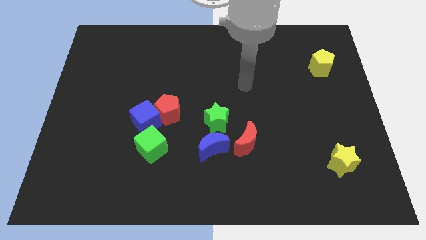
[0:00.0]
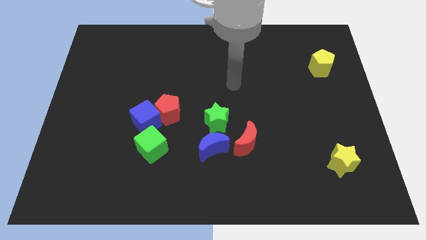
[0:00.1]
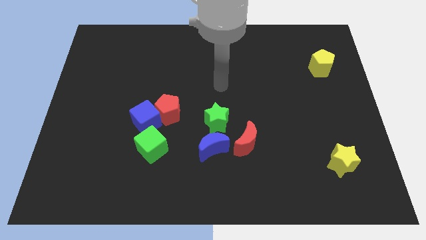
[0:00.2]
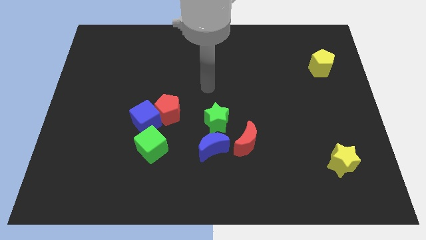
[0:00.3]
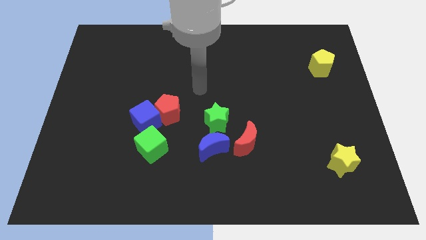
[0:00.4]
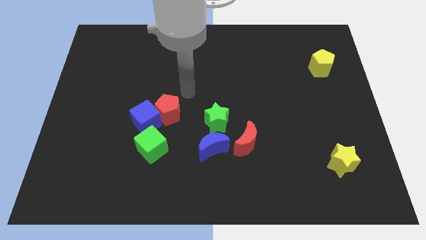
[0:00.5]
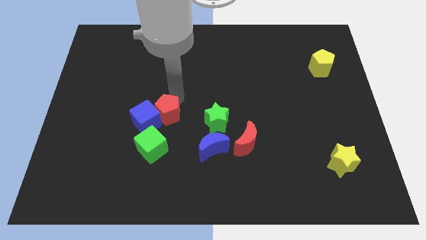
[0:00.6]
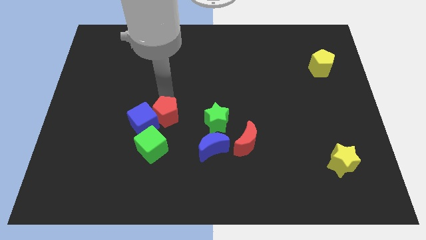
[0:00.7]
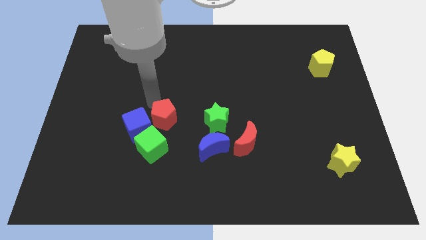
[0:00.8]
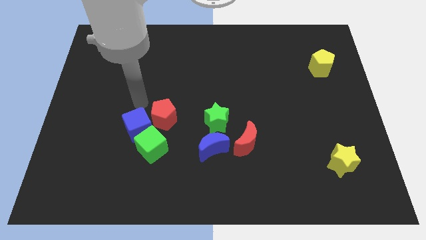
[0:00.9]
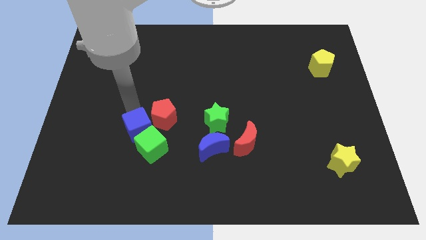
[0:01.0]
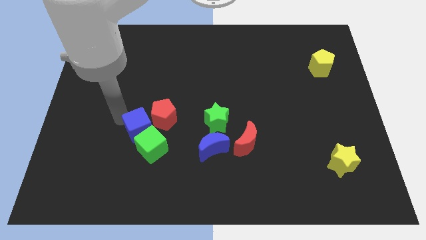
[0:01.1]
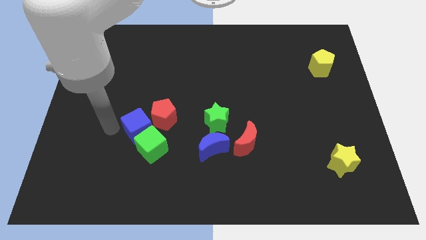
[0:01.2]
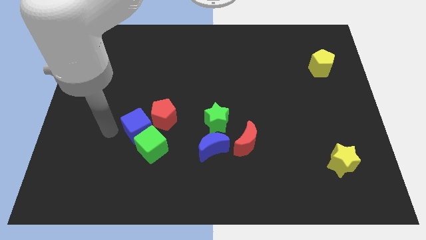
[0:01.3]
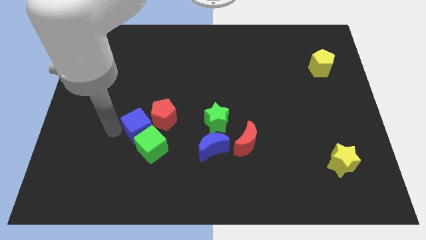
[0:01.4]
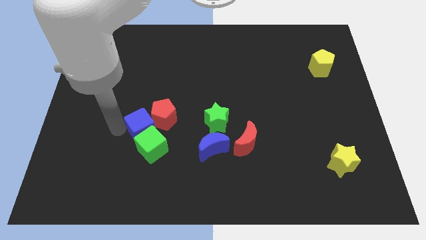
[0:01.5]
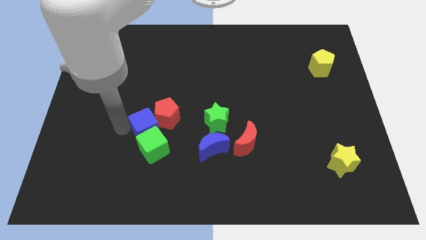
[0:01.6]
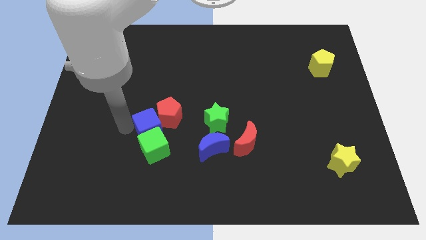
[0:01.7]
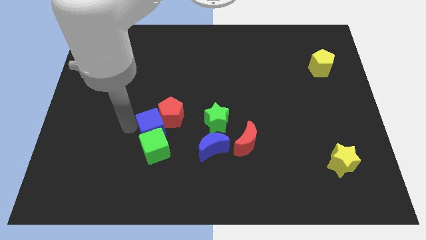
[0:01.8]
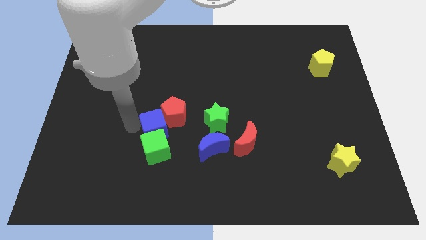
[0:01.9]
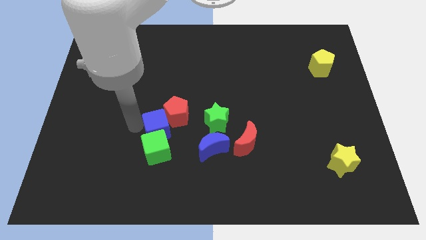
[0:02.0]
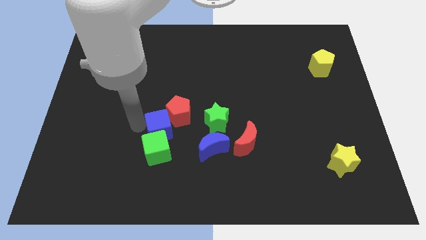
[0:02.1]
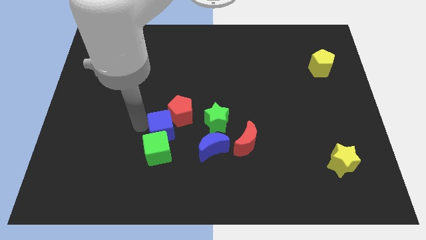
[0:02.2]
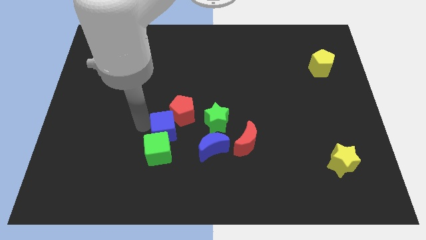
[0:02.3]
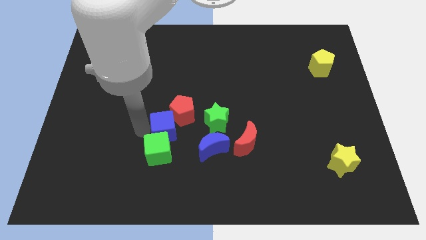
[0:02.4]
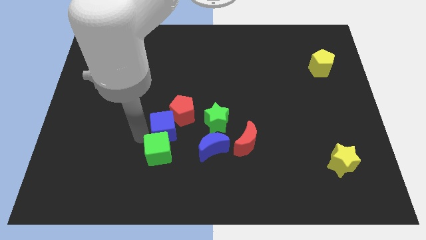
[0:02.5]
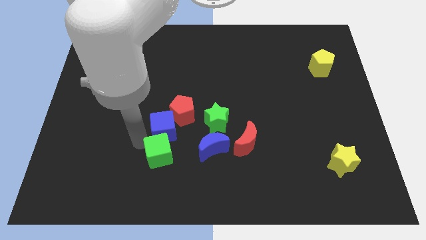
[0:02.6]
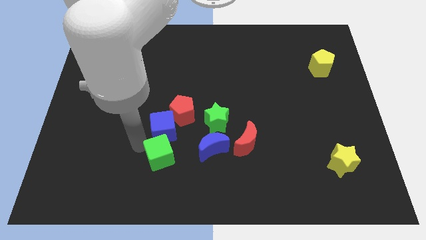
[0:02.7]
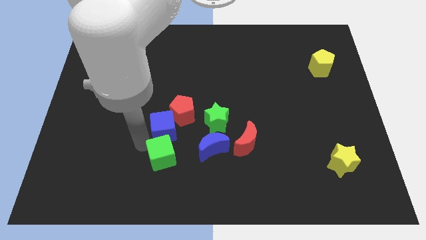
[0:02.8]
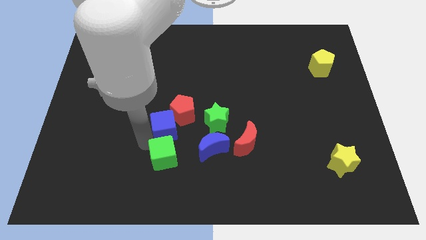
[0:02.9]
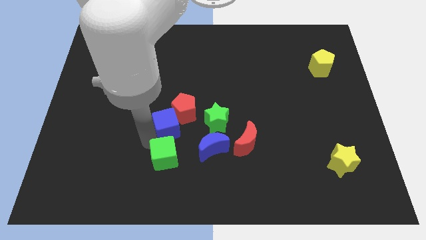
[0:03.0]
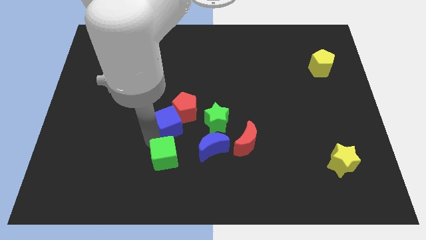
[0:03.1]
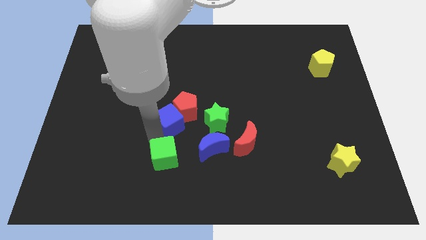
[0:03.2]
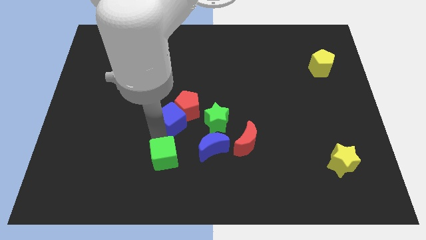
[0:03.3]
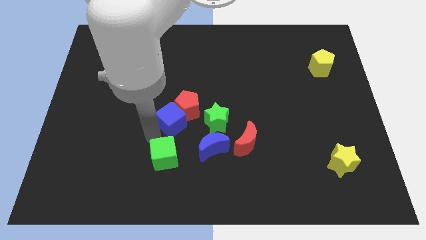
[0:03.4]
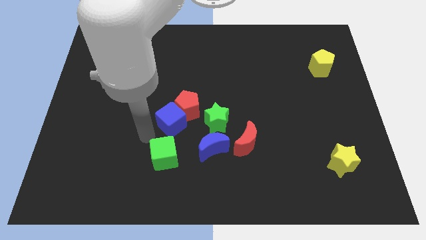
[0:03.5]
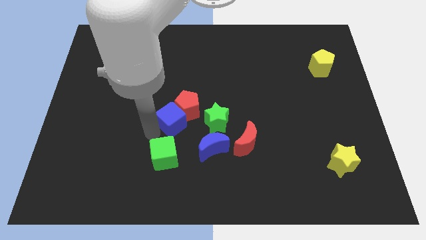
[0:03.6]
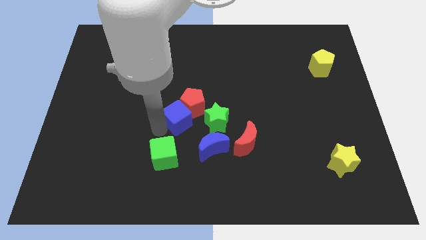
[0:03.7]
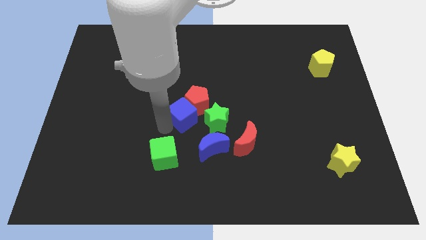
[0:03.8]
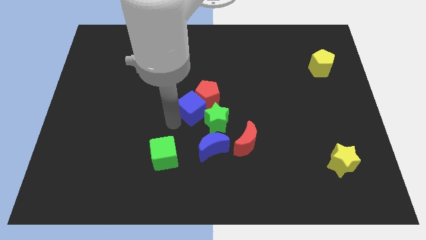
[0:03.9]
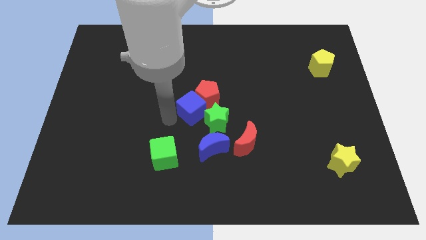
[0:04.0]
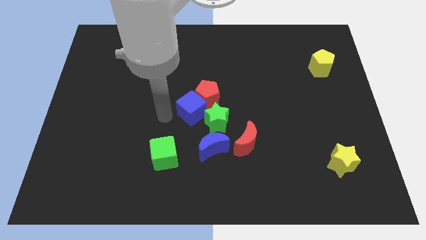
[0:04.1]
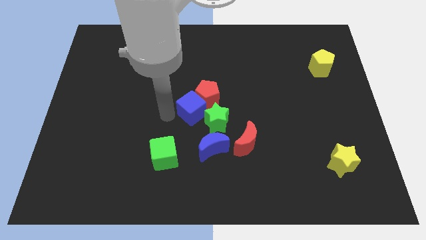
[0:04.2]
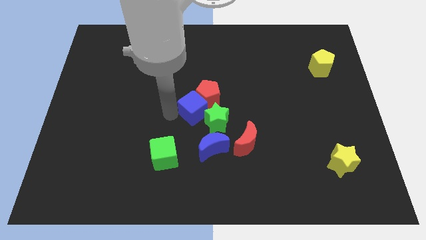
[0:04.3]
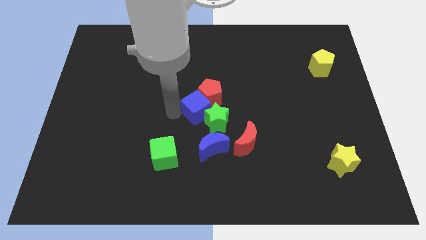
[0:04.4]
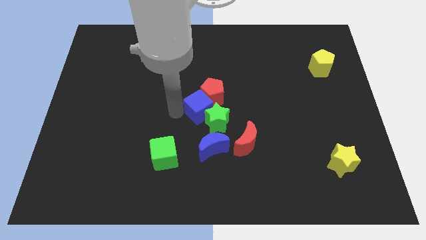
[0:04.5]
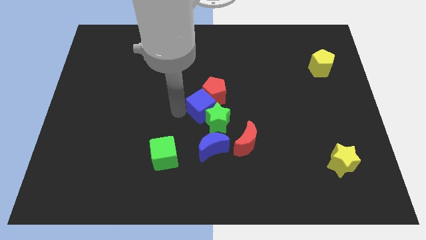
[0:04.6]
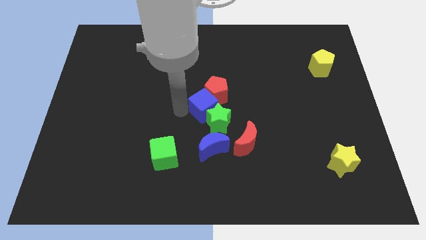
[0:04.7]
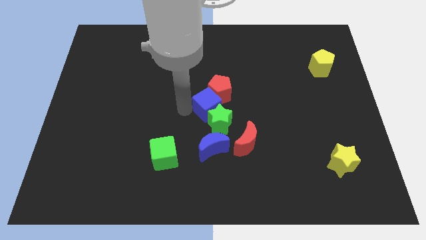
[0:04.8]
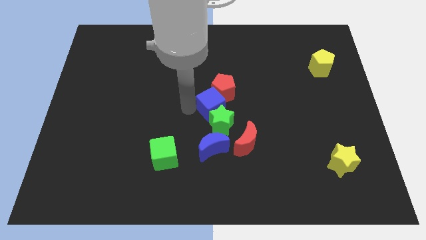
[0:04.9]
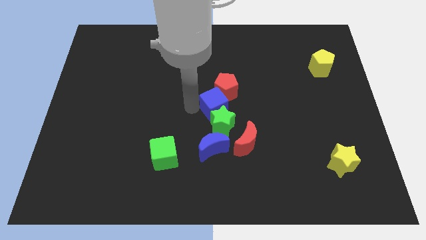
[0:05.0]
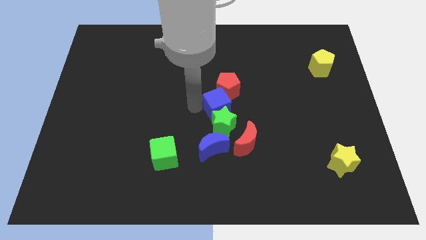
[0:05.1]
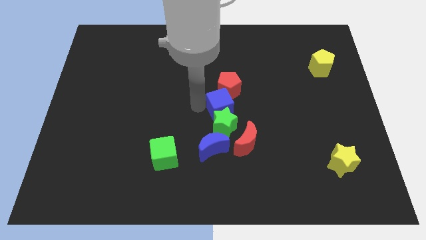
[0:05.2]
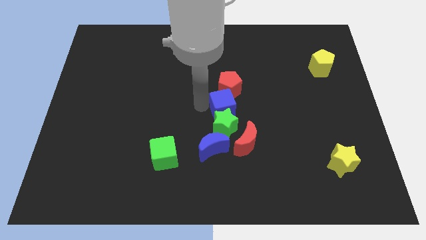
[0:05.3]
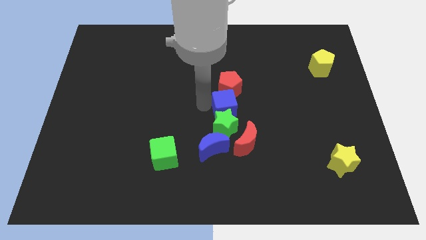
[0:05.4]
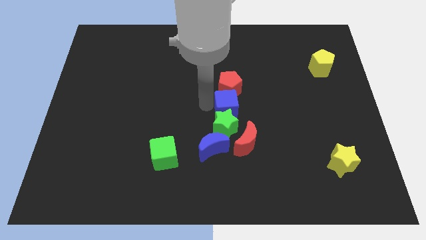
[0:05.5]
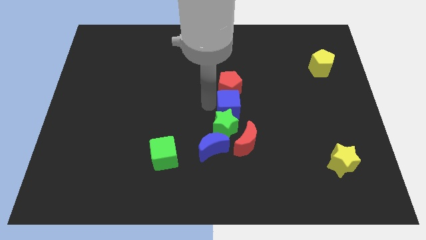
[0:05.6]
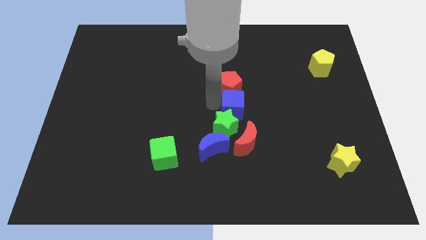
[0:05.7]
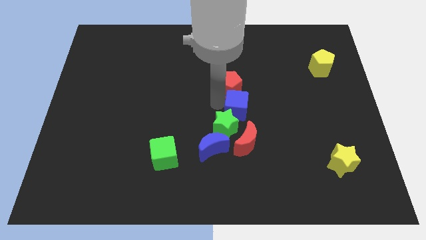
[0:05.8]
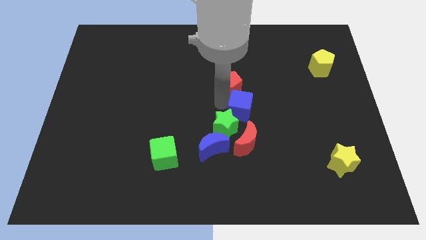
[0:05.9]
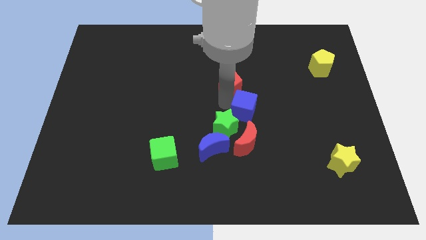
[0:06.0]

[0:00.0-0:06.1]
move the blue cube to the right side of the green star

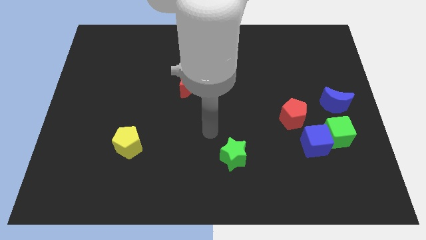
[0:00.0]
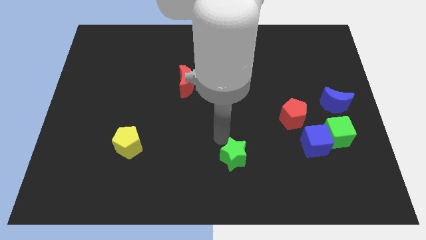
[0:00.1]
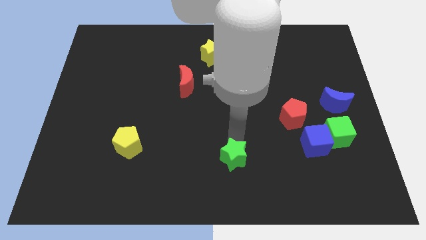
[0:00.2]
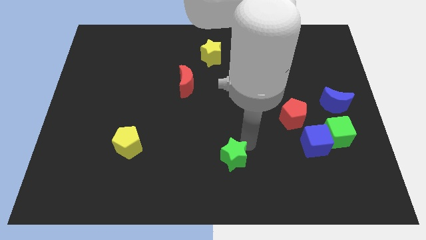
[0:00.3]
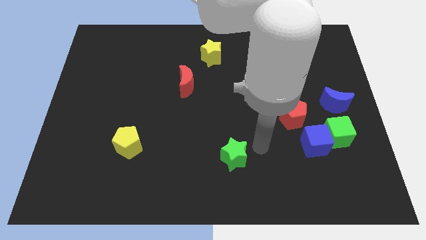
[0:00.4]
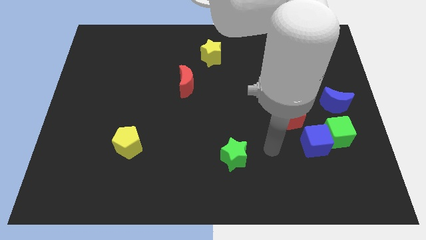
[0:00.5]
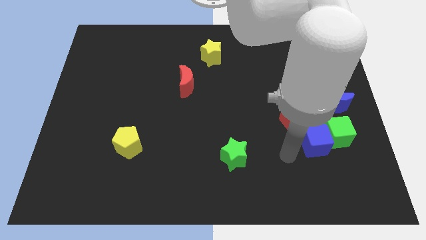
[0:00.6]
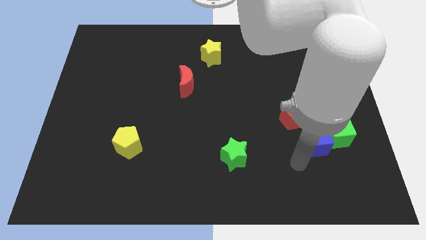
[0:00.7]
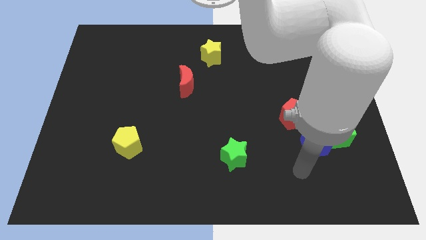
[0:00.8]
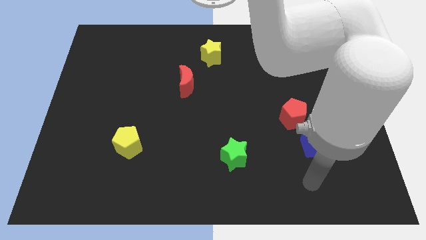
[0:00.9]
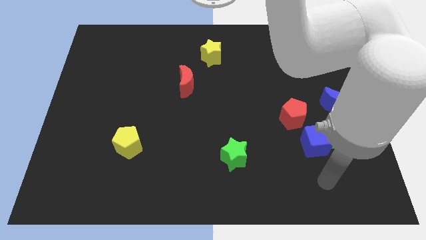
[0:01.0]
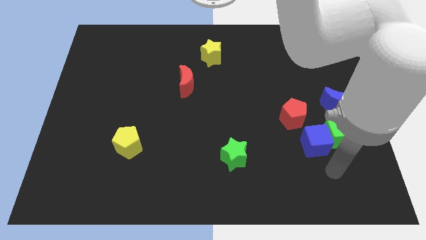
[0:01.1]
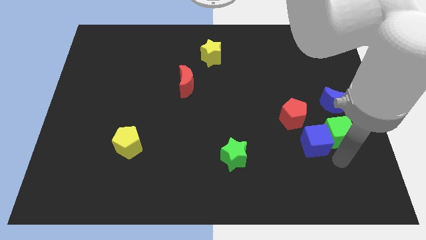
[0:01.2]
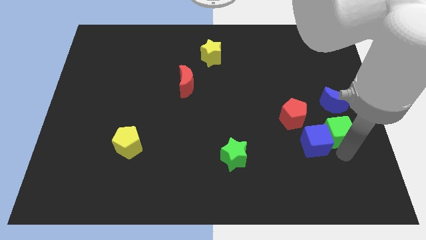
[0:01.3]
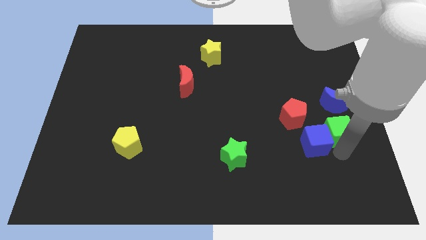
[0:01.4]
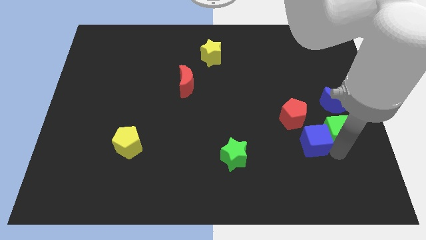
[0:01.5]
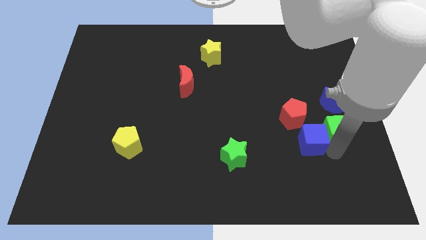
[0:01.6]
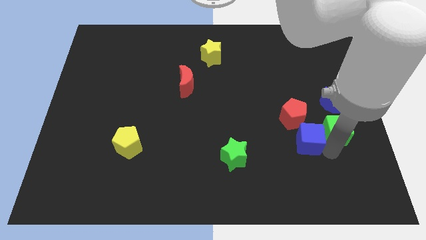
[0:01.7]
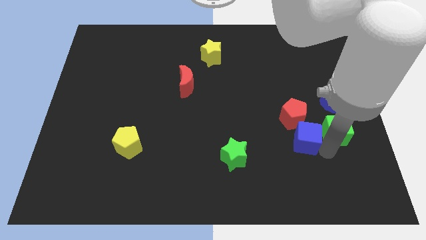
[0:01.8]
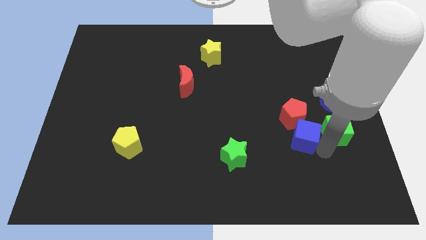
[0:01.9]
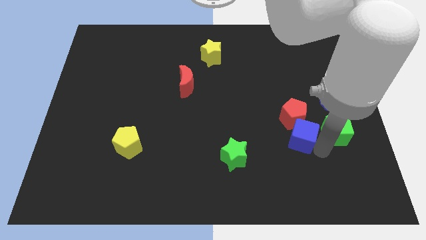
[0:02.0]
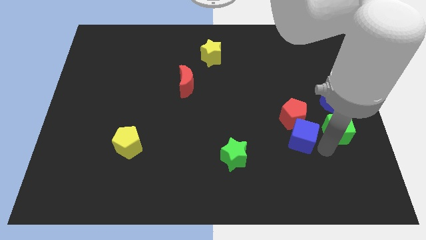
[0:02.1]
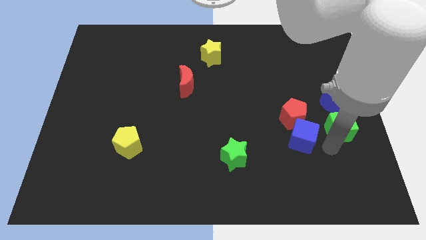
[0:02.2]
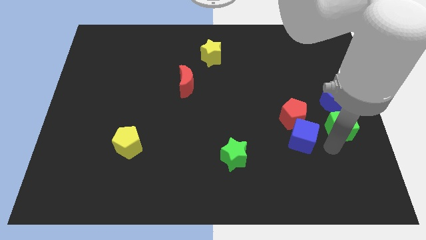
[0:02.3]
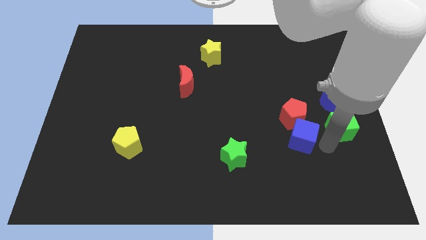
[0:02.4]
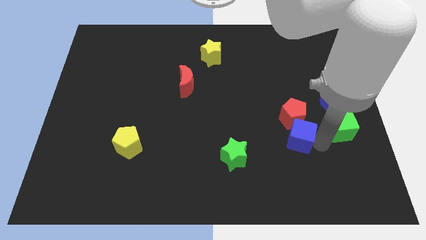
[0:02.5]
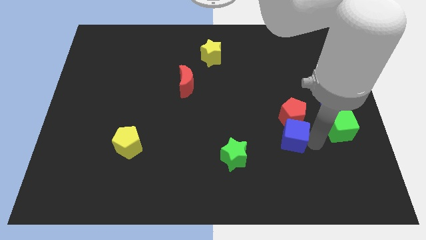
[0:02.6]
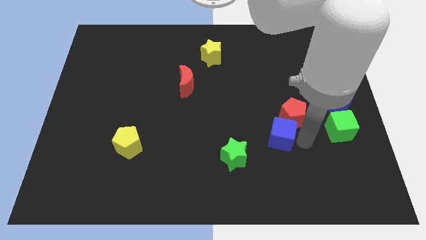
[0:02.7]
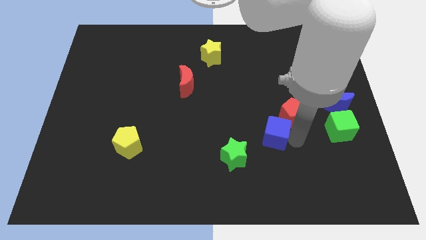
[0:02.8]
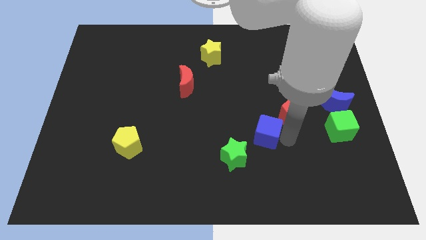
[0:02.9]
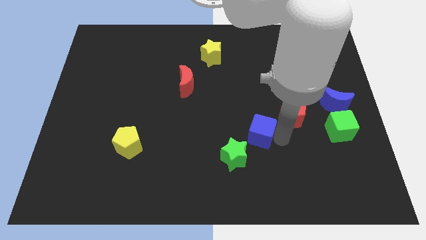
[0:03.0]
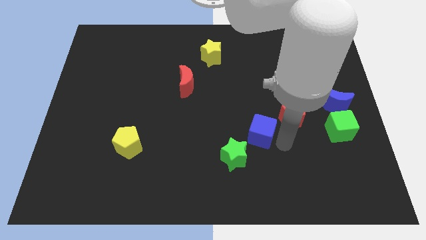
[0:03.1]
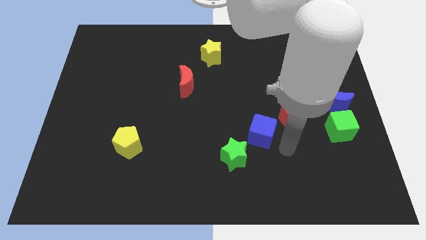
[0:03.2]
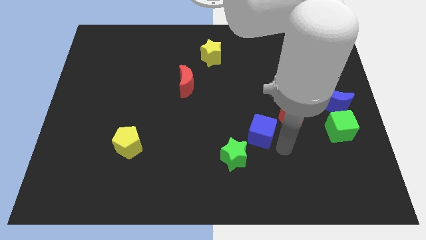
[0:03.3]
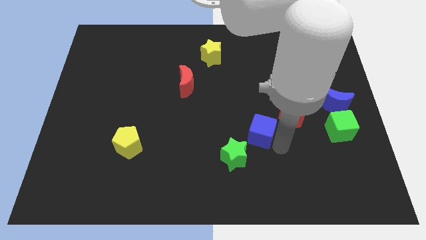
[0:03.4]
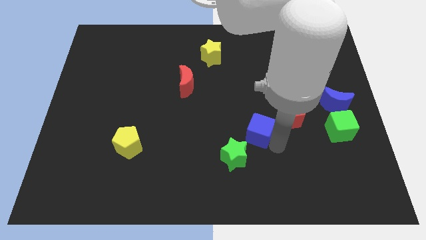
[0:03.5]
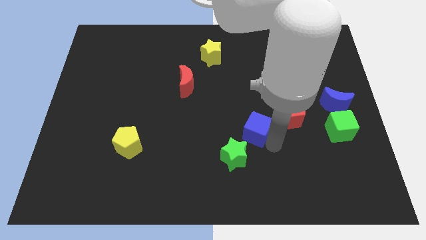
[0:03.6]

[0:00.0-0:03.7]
put the blue cube to the top side of the green star
